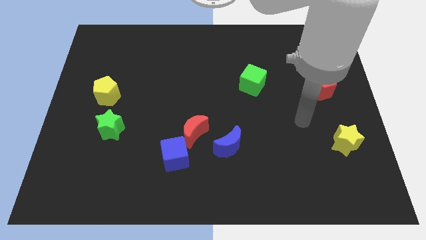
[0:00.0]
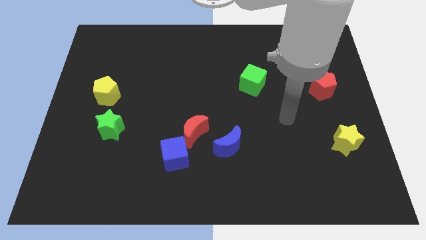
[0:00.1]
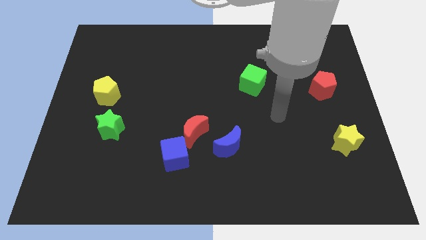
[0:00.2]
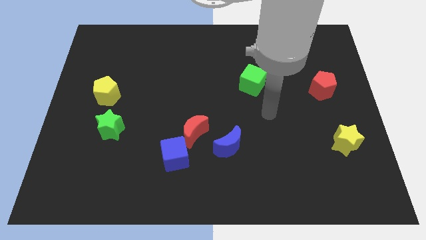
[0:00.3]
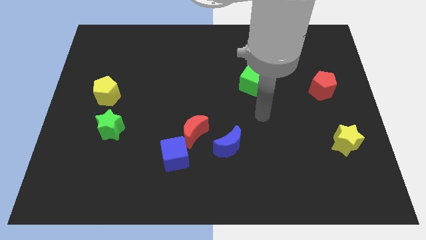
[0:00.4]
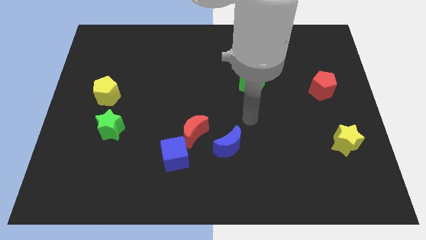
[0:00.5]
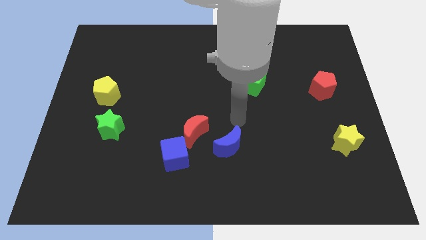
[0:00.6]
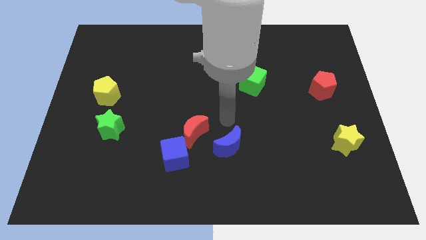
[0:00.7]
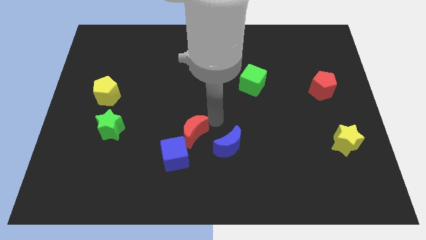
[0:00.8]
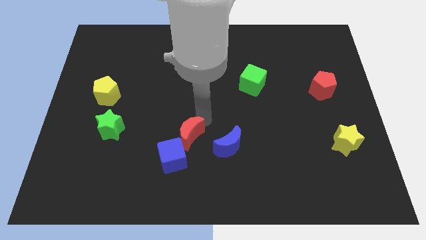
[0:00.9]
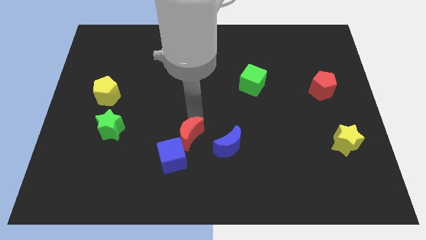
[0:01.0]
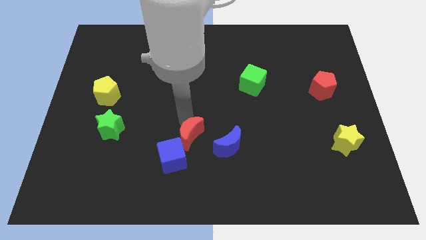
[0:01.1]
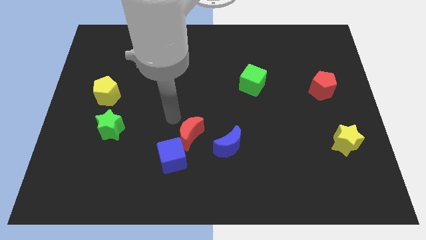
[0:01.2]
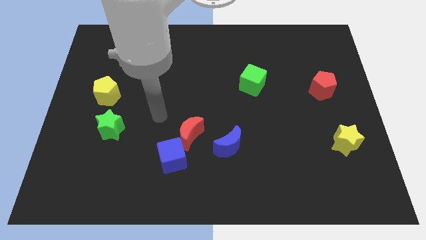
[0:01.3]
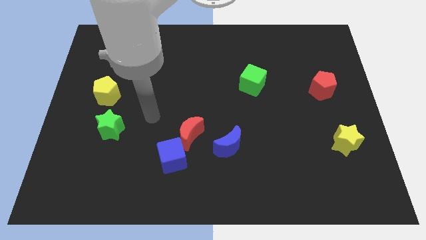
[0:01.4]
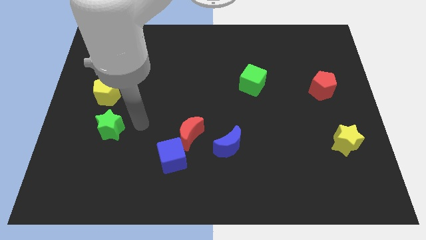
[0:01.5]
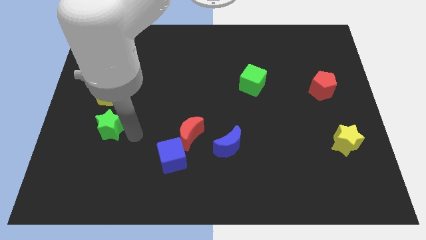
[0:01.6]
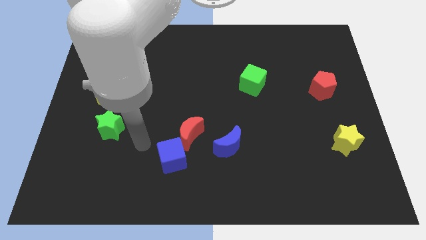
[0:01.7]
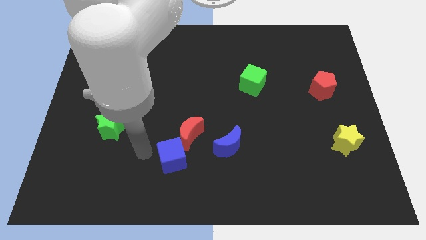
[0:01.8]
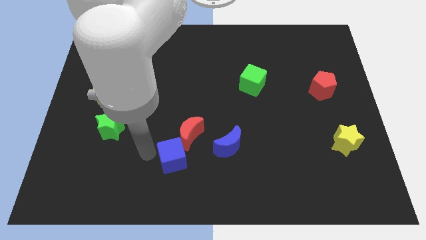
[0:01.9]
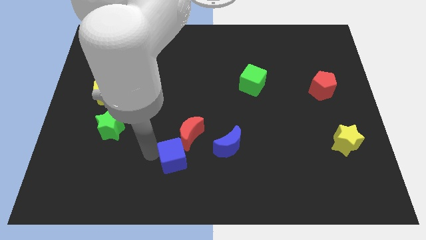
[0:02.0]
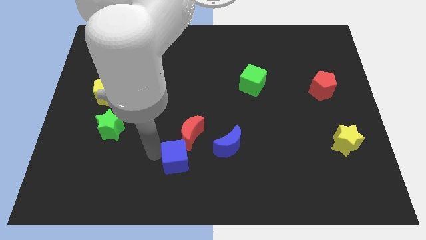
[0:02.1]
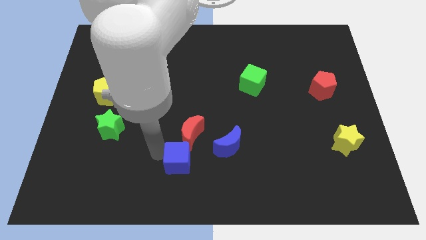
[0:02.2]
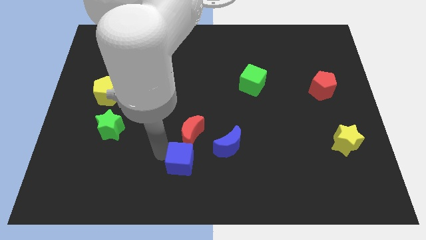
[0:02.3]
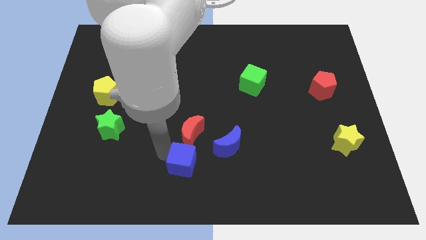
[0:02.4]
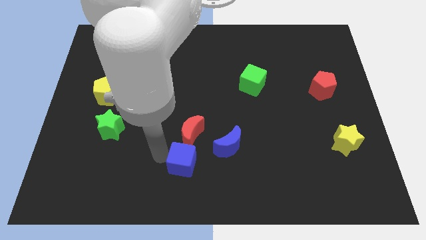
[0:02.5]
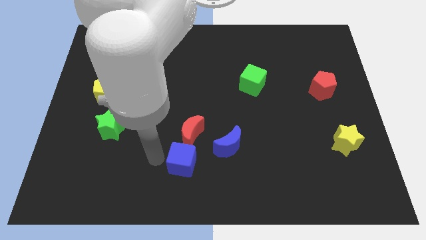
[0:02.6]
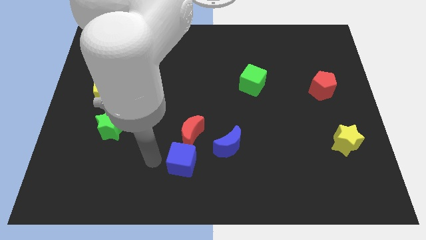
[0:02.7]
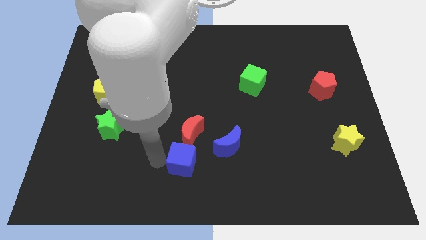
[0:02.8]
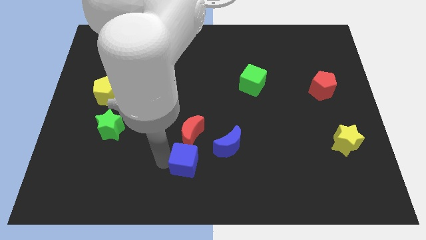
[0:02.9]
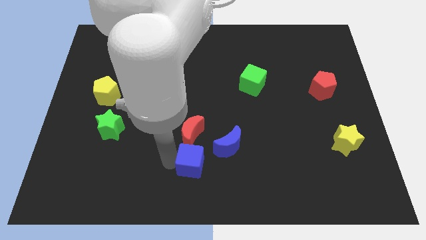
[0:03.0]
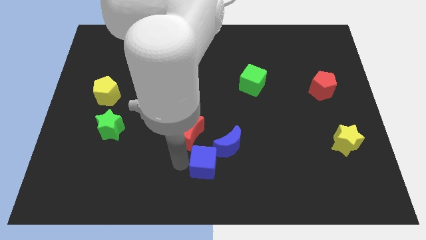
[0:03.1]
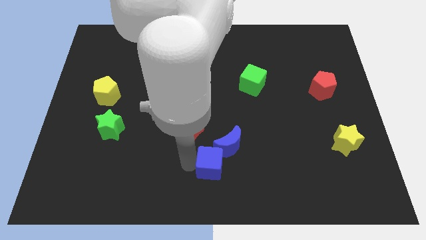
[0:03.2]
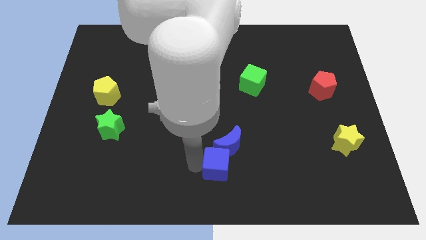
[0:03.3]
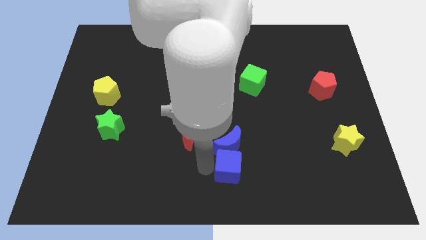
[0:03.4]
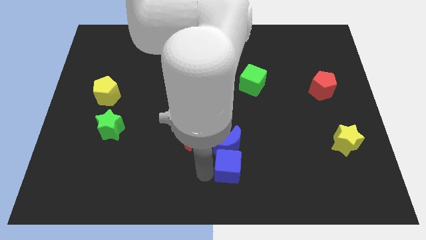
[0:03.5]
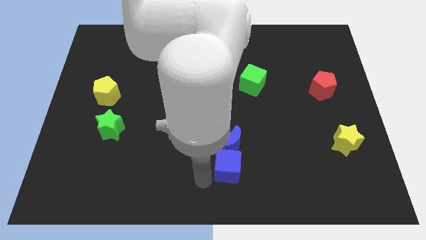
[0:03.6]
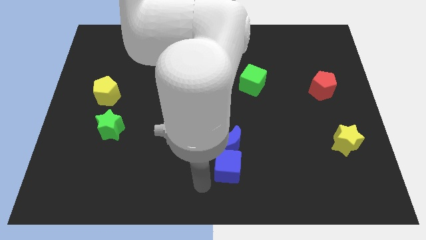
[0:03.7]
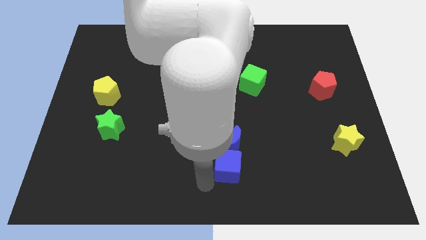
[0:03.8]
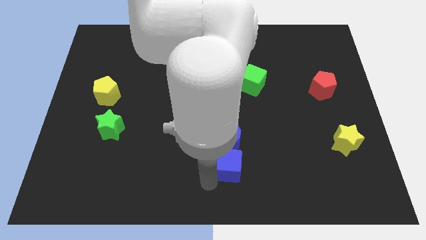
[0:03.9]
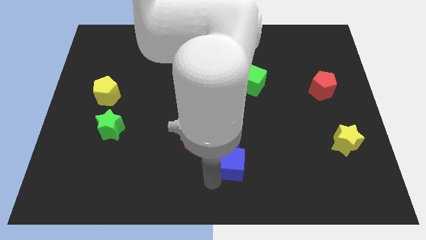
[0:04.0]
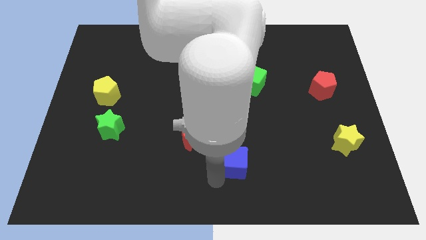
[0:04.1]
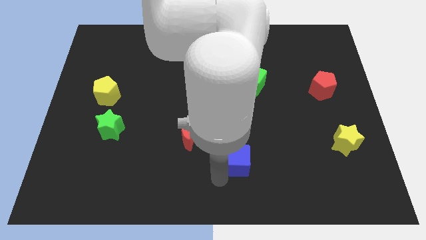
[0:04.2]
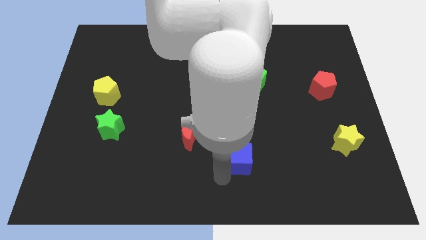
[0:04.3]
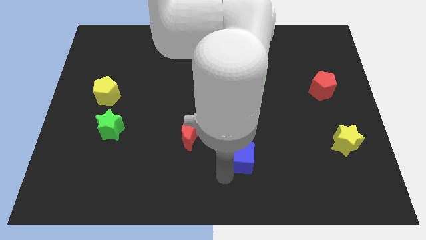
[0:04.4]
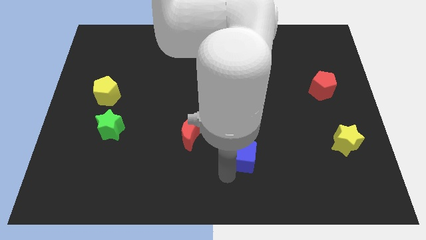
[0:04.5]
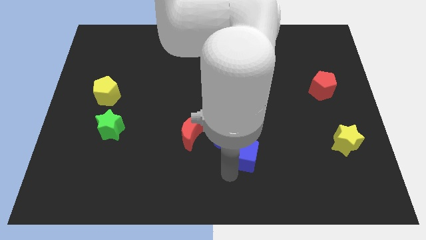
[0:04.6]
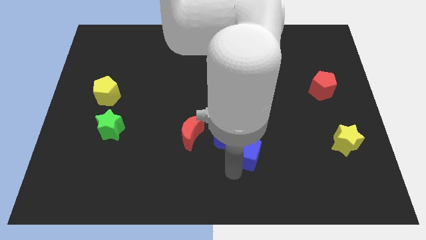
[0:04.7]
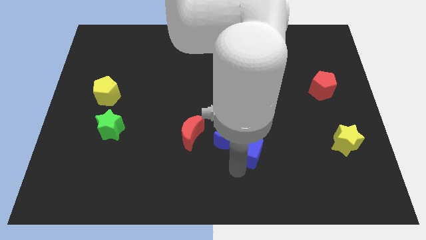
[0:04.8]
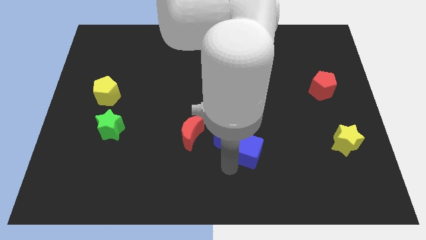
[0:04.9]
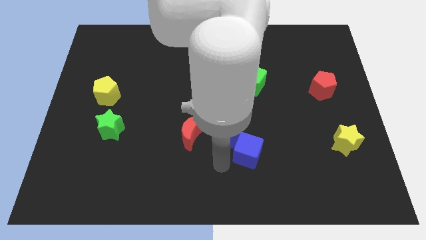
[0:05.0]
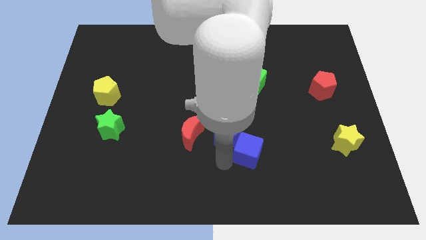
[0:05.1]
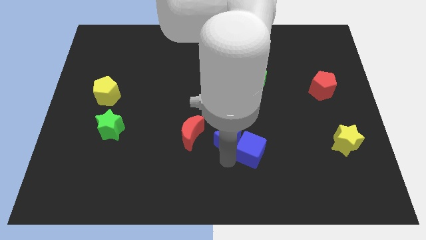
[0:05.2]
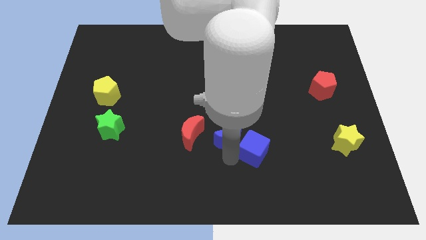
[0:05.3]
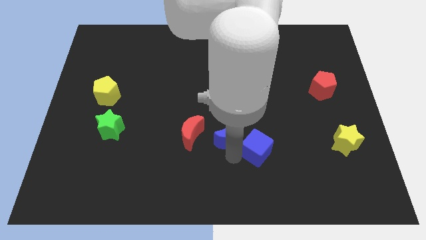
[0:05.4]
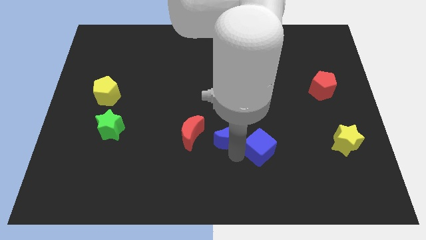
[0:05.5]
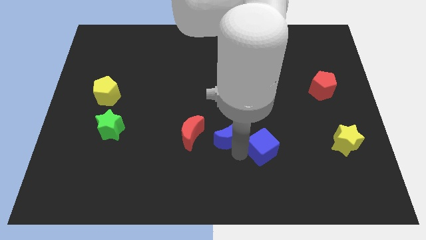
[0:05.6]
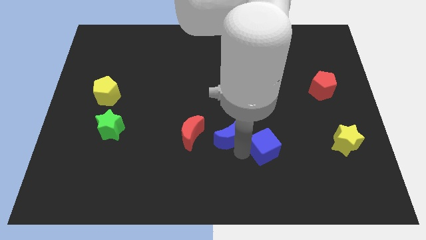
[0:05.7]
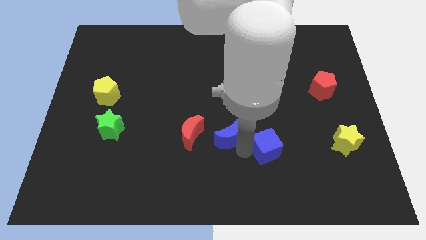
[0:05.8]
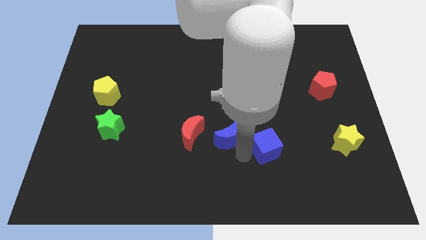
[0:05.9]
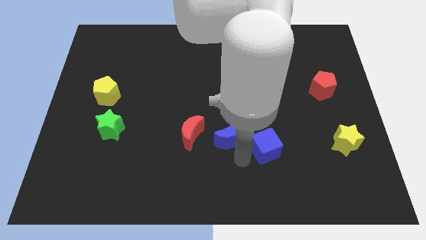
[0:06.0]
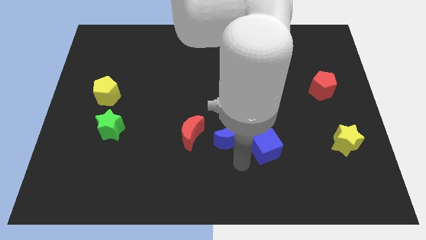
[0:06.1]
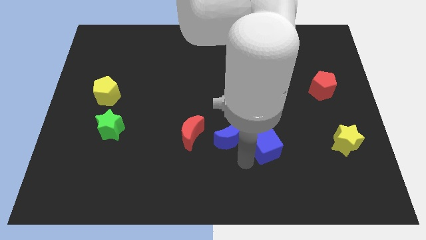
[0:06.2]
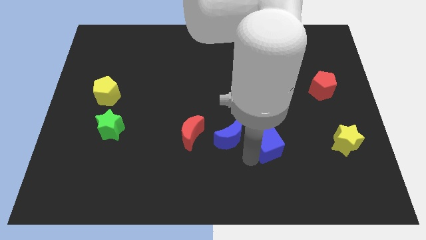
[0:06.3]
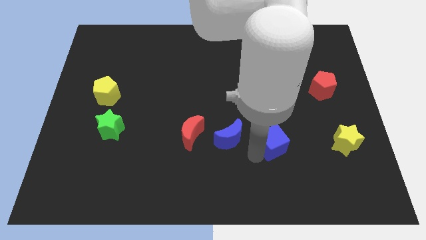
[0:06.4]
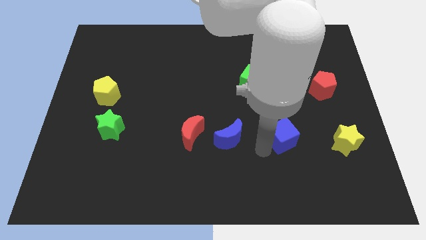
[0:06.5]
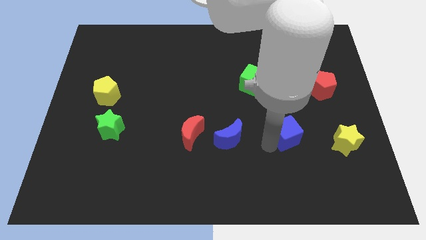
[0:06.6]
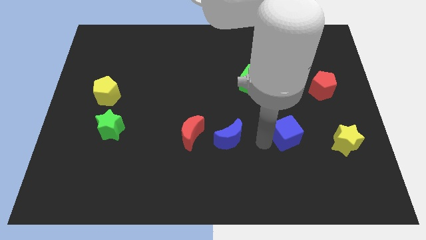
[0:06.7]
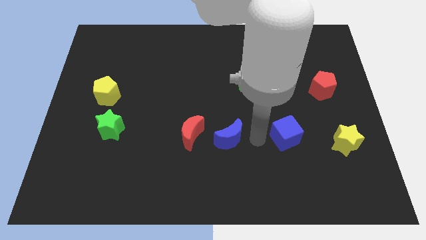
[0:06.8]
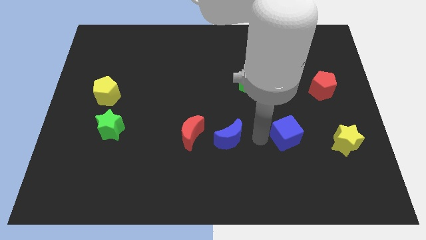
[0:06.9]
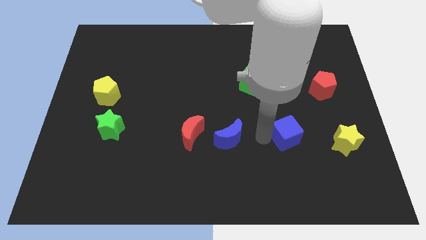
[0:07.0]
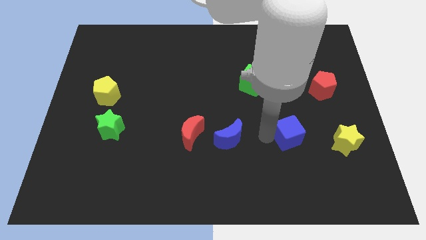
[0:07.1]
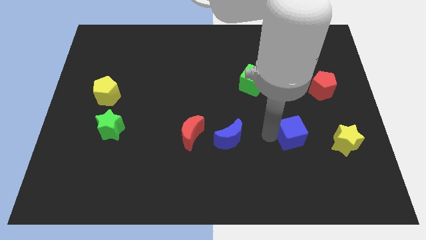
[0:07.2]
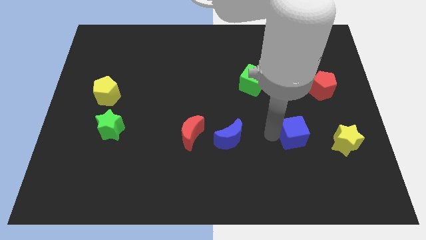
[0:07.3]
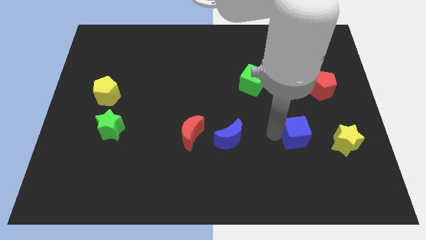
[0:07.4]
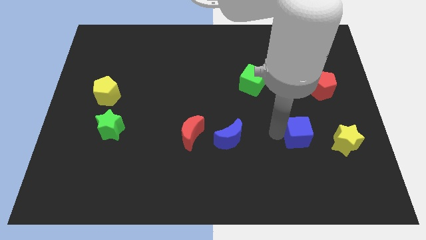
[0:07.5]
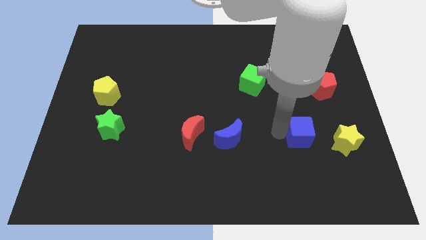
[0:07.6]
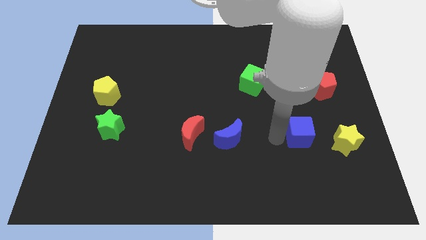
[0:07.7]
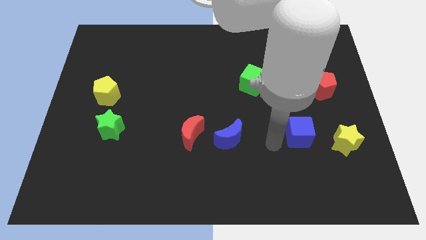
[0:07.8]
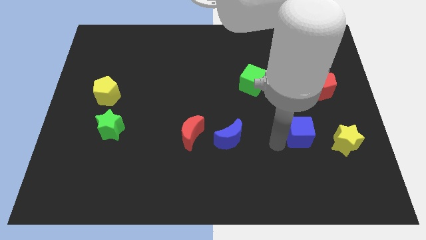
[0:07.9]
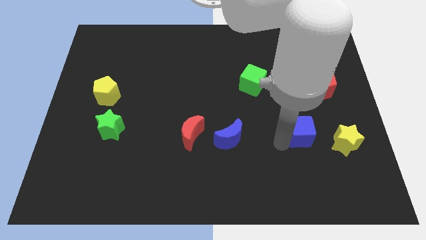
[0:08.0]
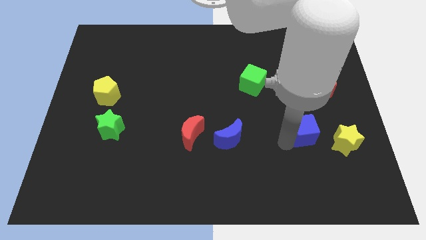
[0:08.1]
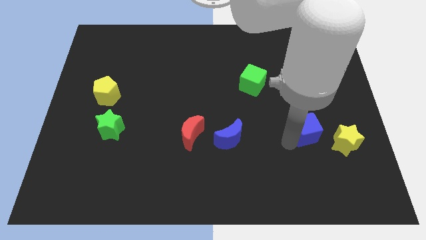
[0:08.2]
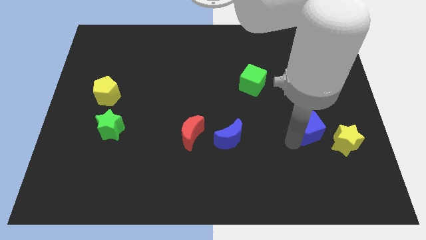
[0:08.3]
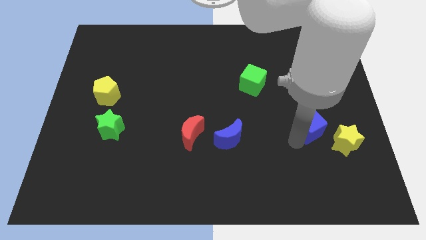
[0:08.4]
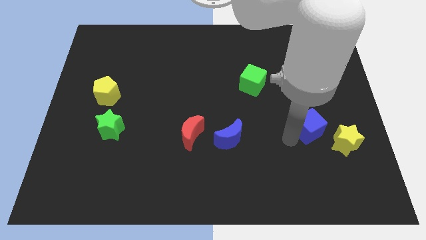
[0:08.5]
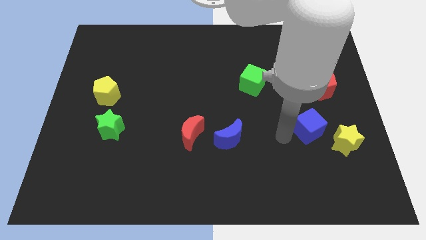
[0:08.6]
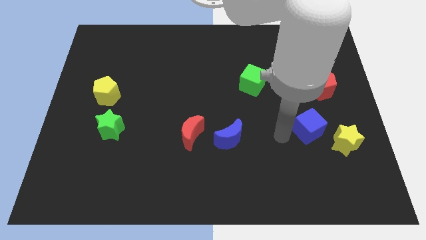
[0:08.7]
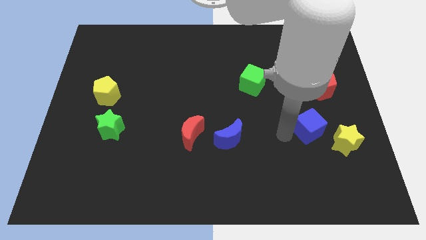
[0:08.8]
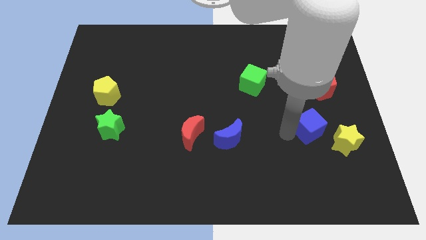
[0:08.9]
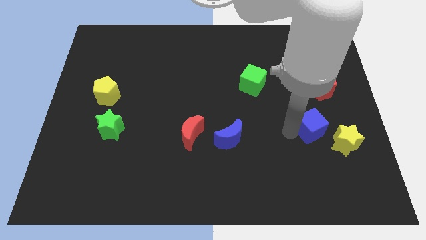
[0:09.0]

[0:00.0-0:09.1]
move the blue cube below the red pentagon
